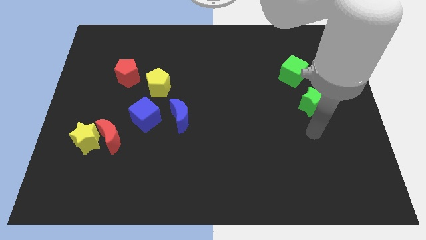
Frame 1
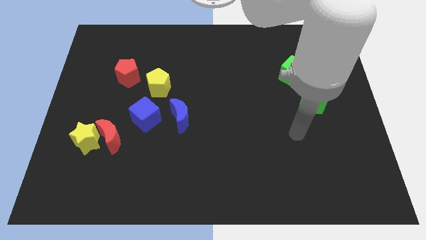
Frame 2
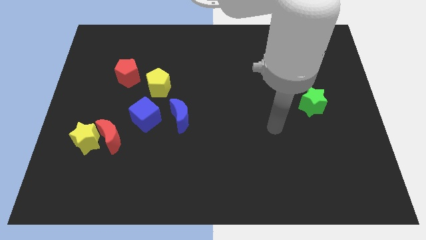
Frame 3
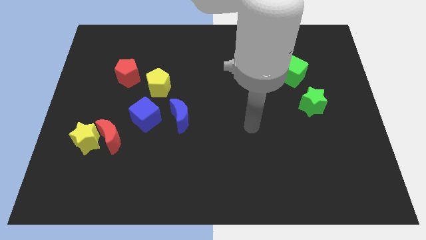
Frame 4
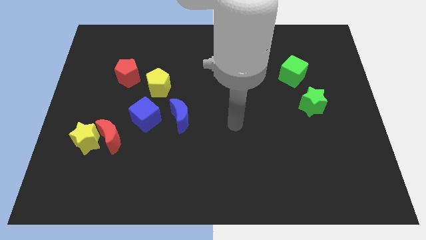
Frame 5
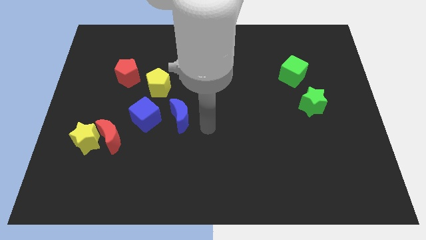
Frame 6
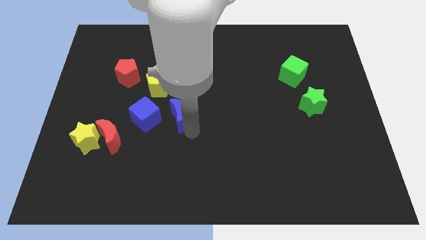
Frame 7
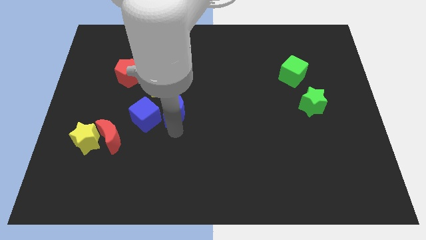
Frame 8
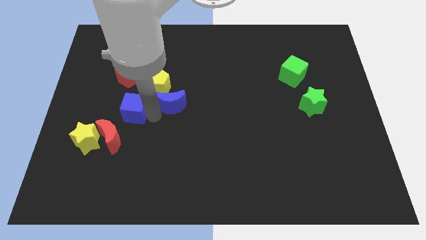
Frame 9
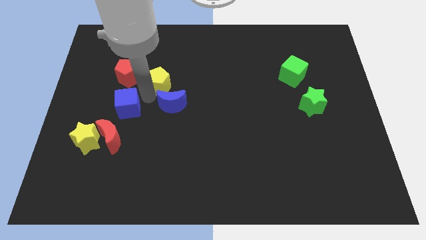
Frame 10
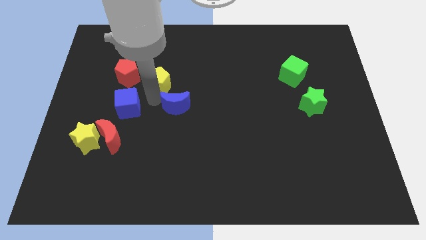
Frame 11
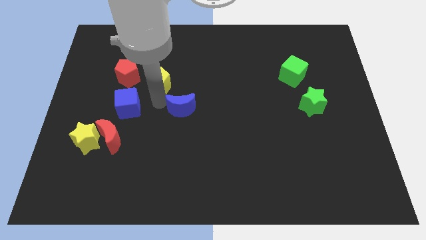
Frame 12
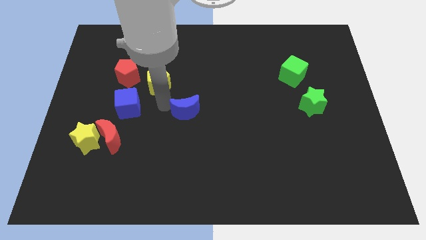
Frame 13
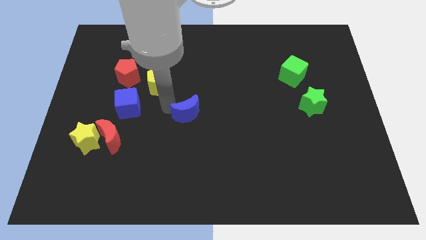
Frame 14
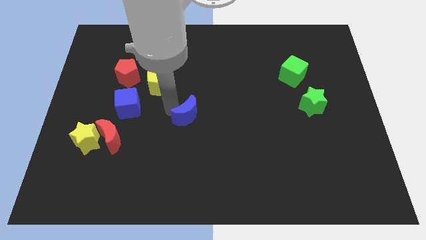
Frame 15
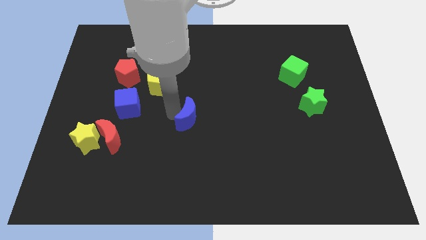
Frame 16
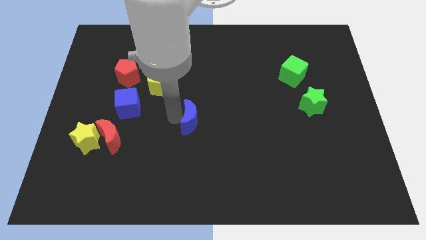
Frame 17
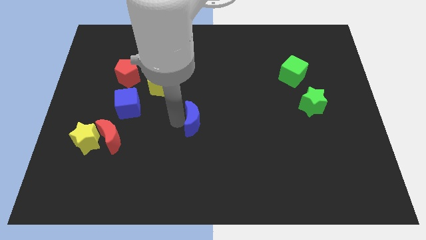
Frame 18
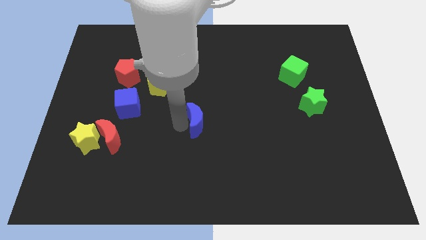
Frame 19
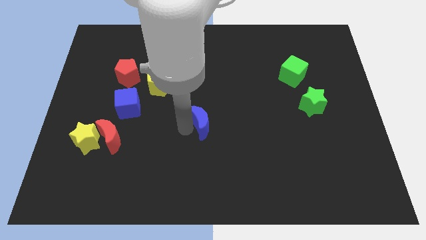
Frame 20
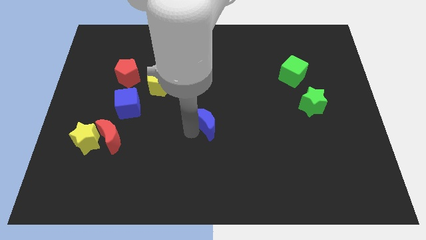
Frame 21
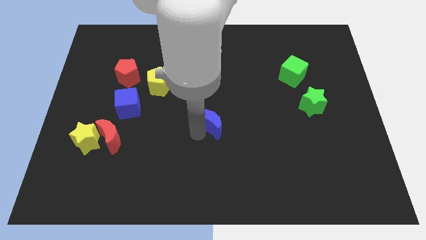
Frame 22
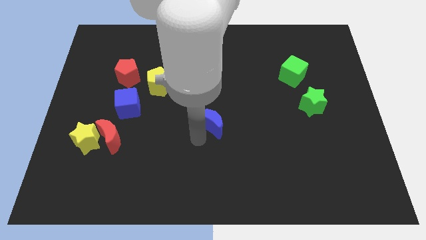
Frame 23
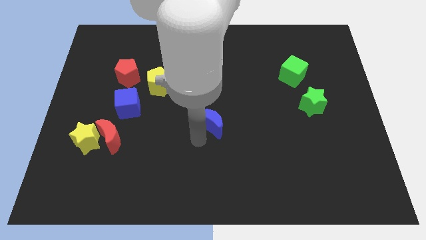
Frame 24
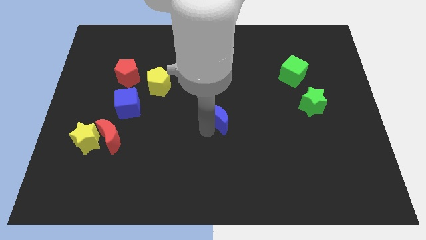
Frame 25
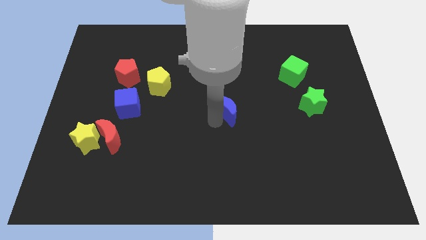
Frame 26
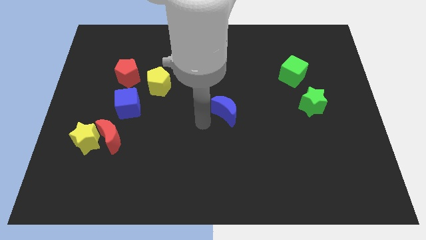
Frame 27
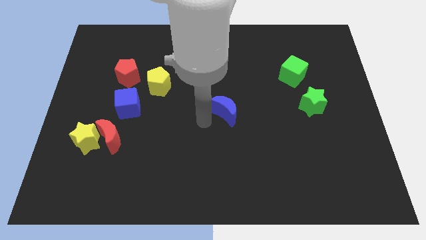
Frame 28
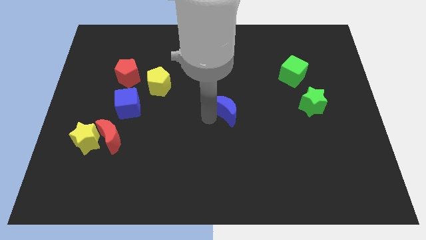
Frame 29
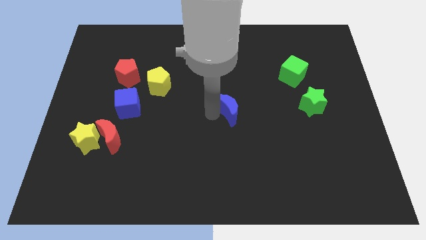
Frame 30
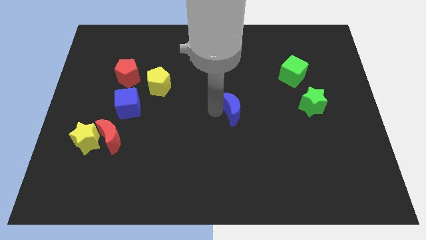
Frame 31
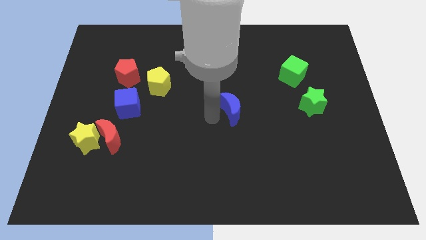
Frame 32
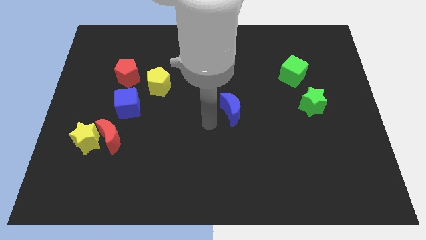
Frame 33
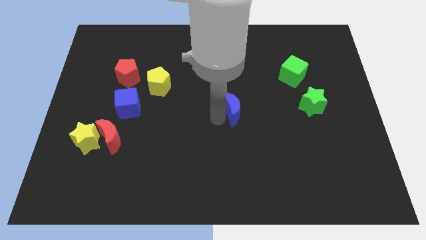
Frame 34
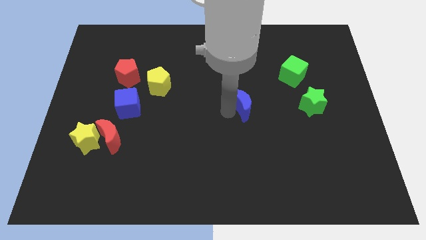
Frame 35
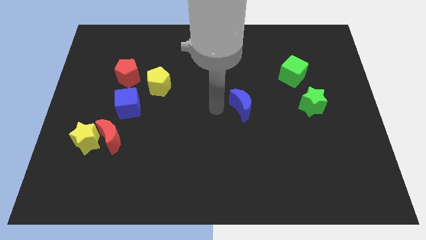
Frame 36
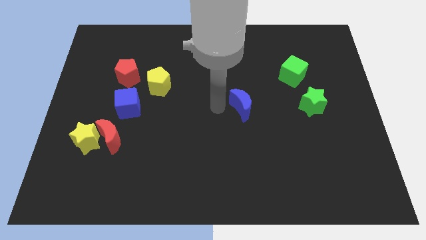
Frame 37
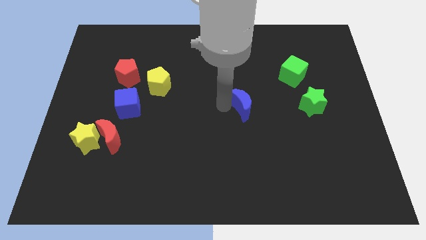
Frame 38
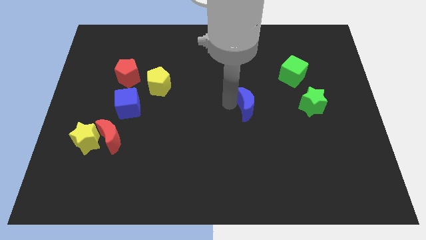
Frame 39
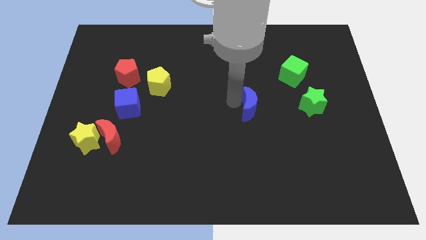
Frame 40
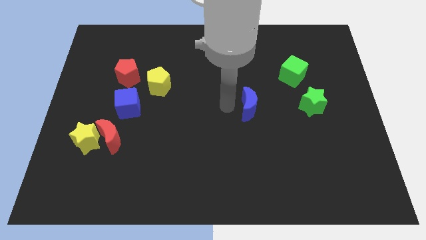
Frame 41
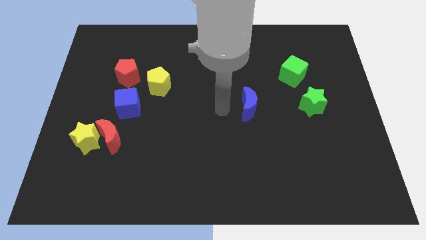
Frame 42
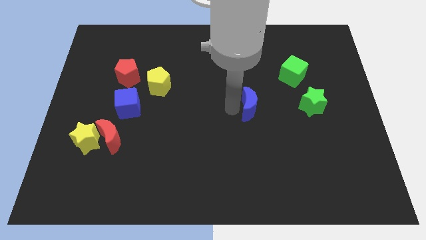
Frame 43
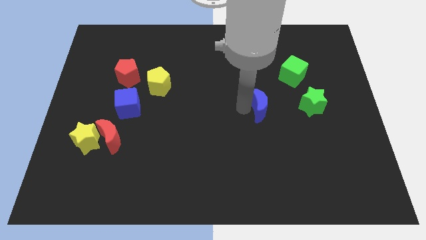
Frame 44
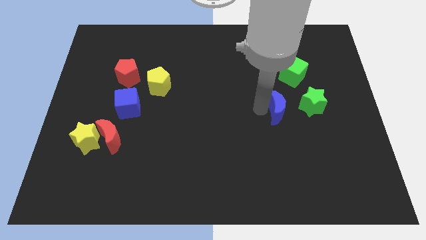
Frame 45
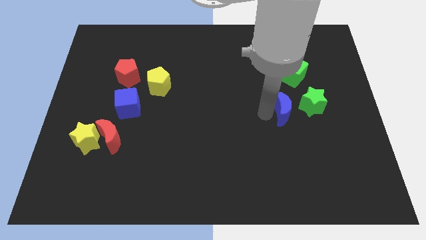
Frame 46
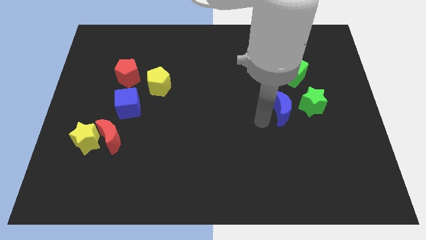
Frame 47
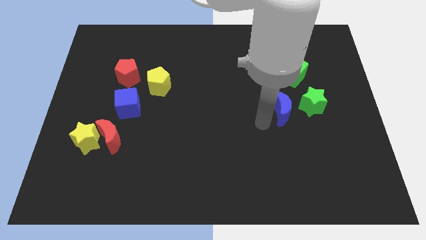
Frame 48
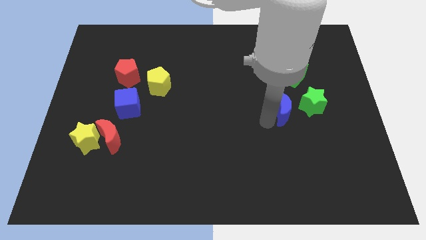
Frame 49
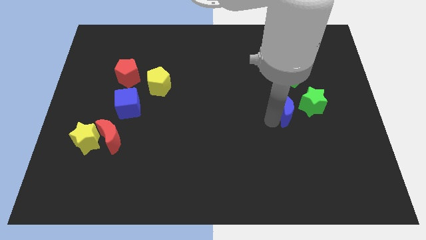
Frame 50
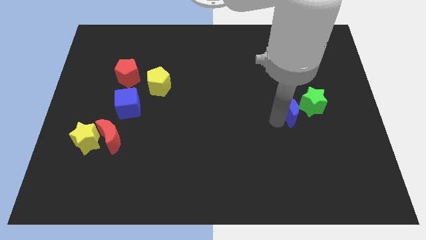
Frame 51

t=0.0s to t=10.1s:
slide the blue moon to the green star

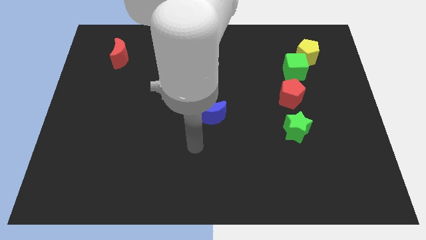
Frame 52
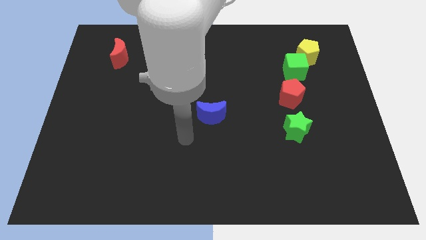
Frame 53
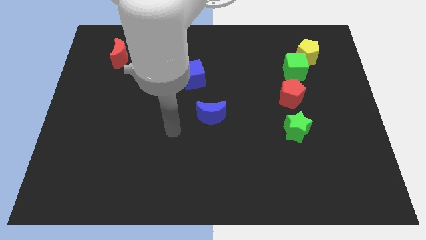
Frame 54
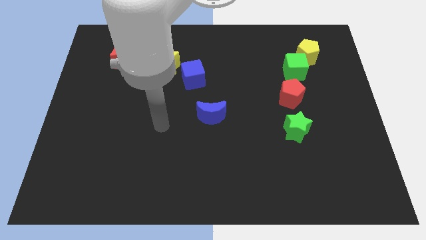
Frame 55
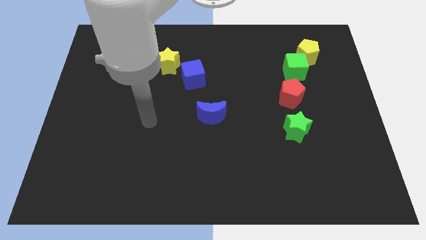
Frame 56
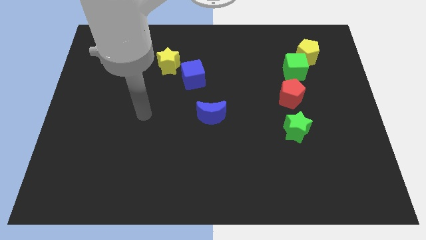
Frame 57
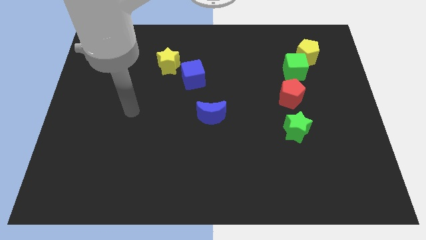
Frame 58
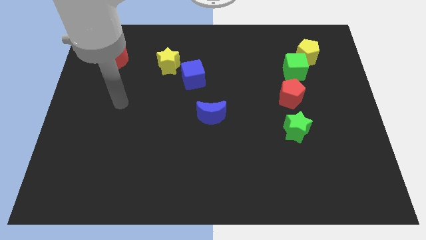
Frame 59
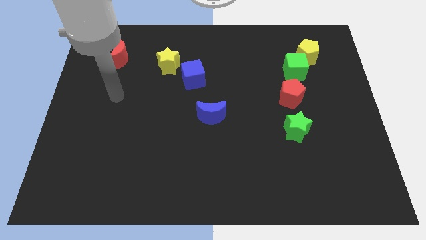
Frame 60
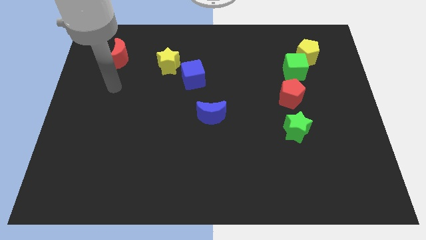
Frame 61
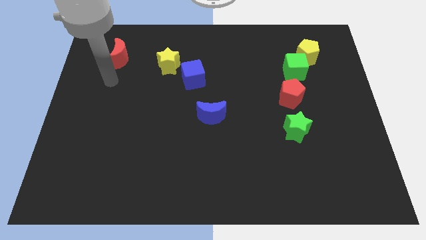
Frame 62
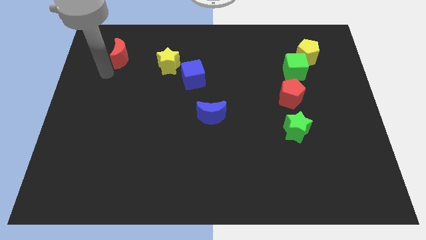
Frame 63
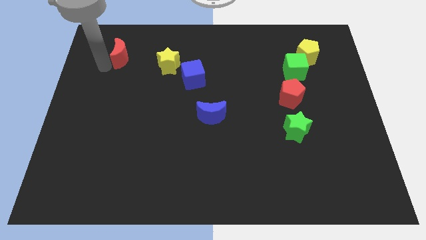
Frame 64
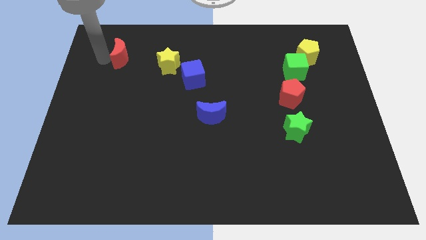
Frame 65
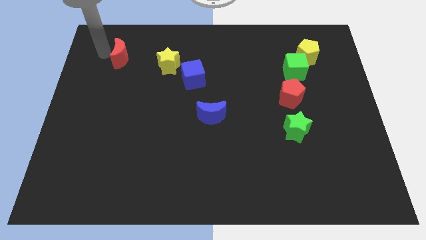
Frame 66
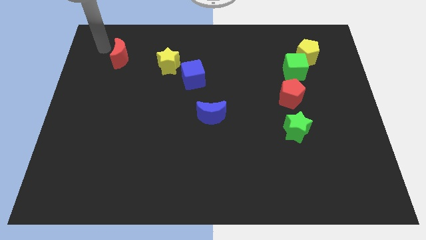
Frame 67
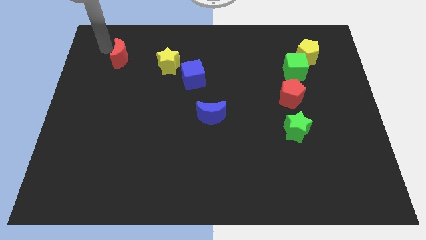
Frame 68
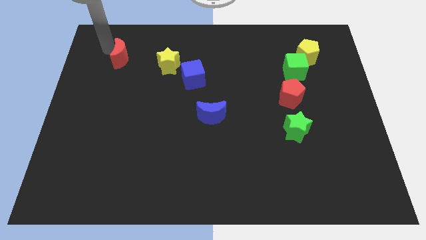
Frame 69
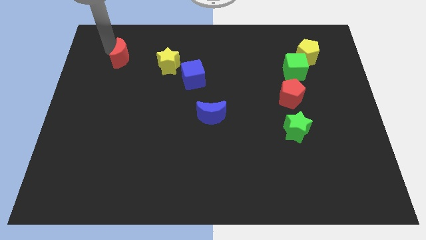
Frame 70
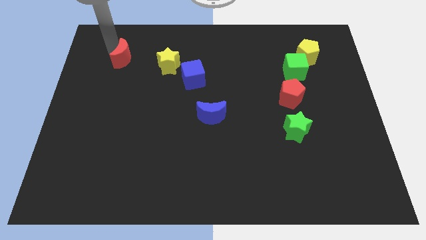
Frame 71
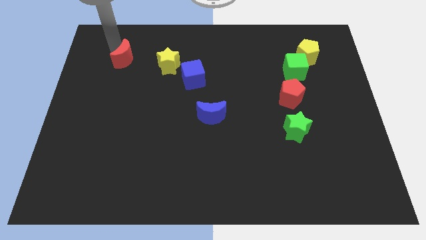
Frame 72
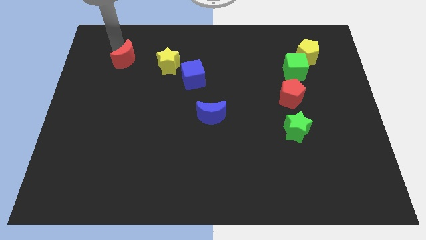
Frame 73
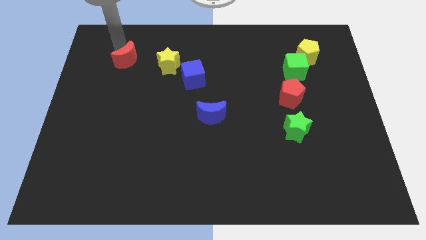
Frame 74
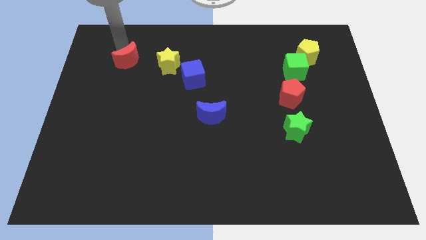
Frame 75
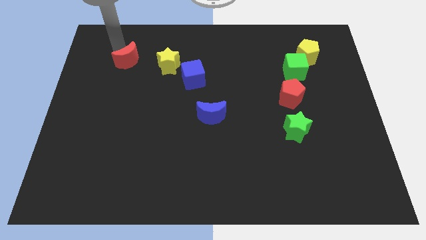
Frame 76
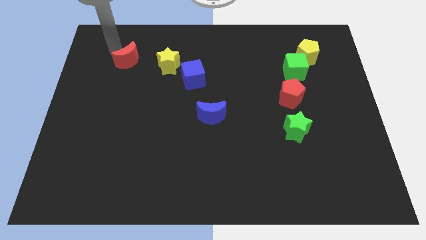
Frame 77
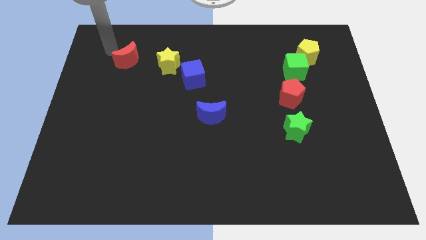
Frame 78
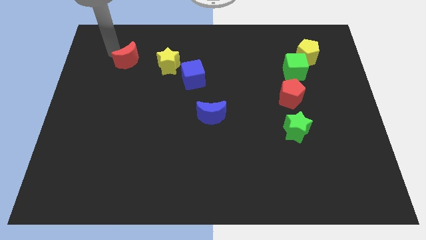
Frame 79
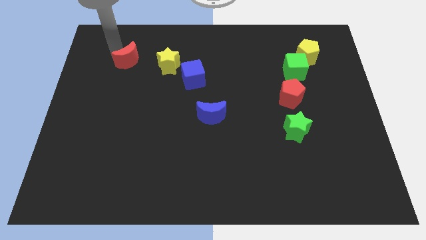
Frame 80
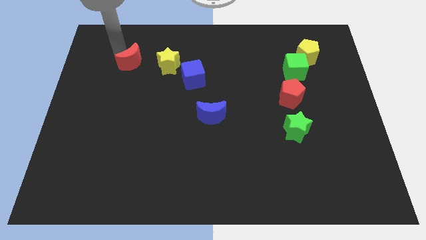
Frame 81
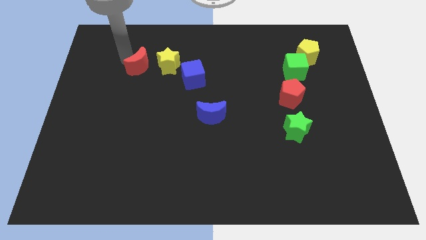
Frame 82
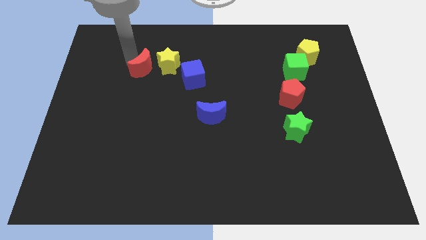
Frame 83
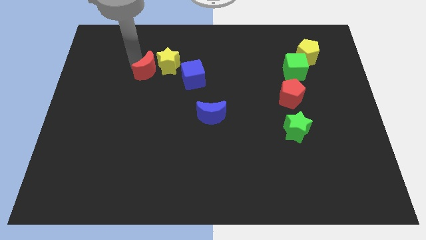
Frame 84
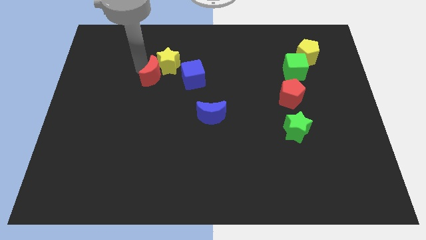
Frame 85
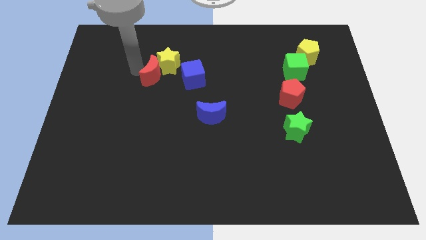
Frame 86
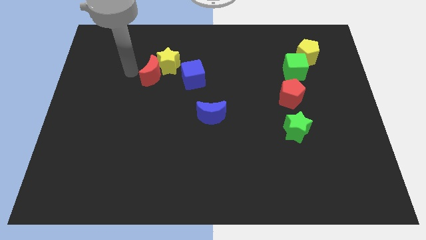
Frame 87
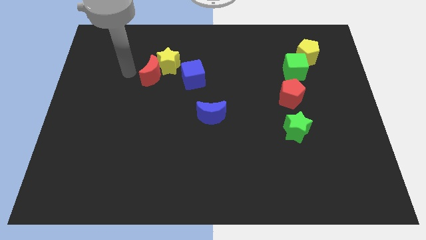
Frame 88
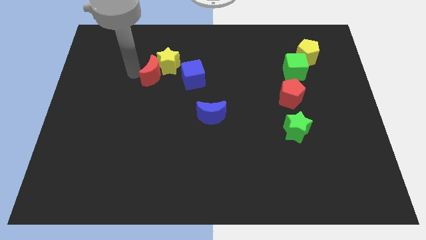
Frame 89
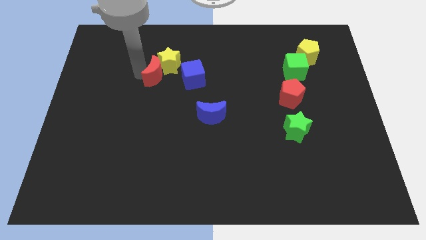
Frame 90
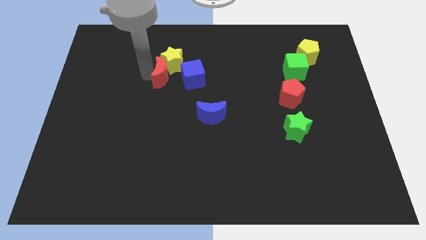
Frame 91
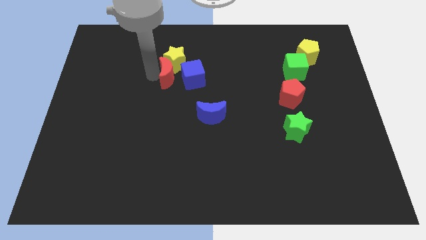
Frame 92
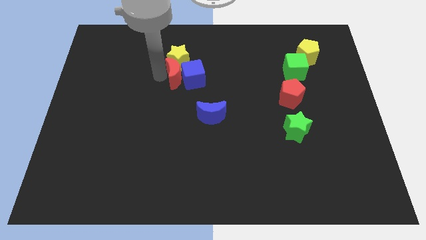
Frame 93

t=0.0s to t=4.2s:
push the red moon close to the blue cube
